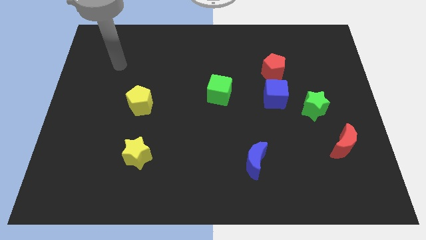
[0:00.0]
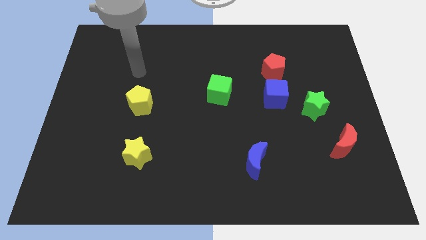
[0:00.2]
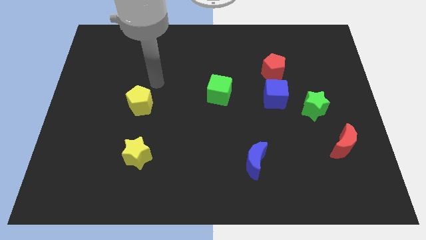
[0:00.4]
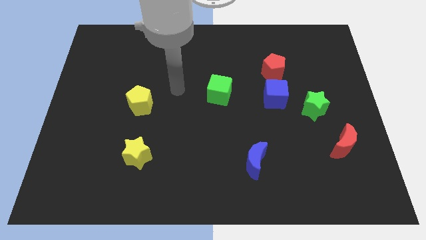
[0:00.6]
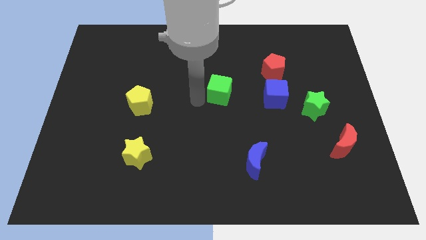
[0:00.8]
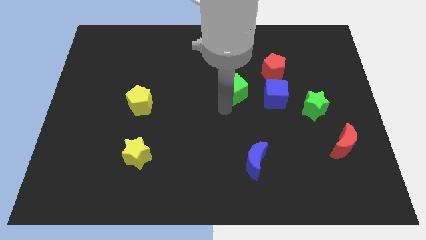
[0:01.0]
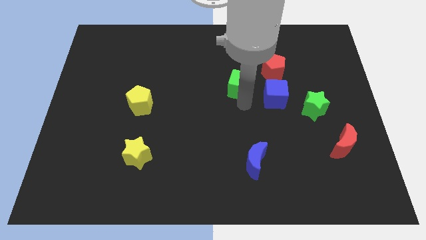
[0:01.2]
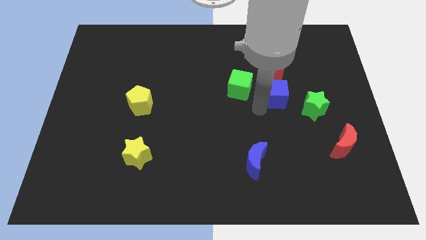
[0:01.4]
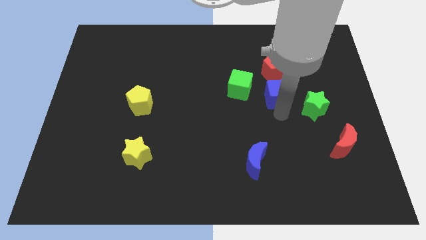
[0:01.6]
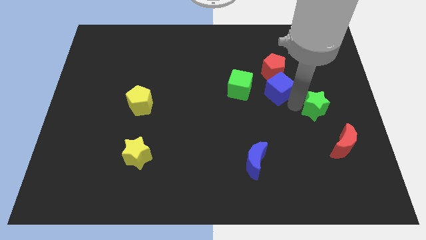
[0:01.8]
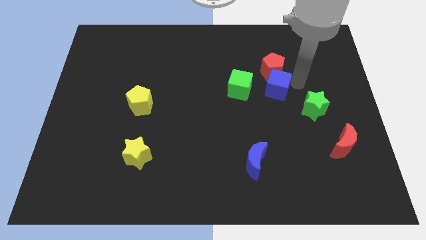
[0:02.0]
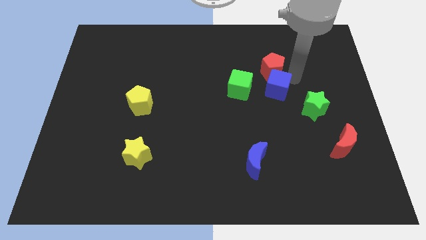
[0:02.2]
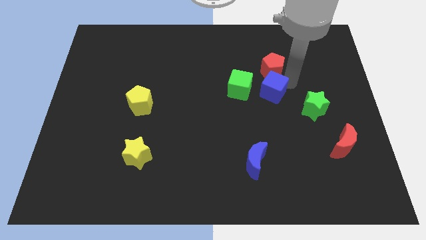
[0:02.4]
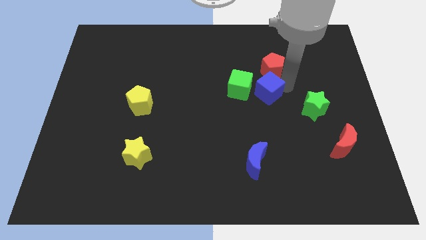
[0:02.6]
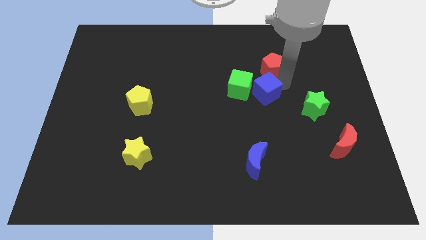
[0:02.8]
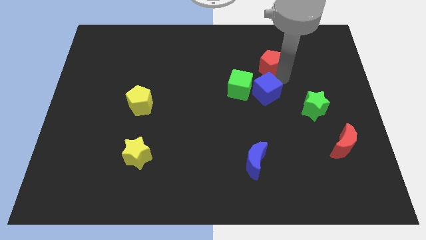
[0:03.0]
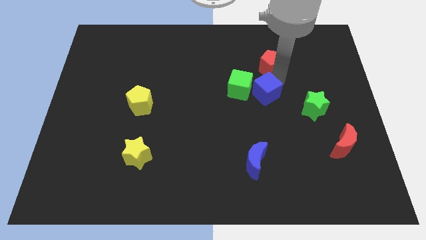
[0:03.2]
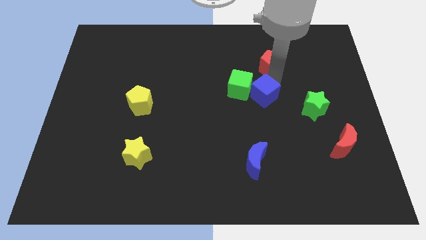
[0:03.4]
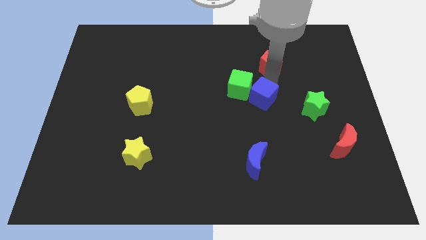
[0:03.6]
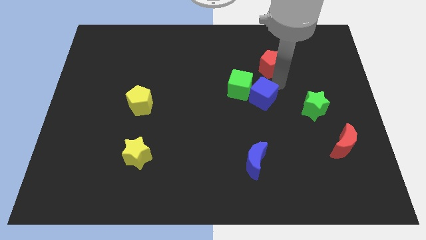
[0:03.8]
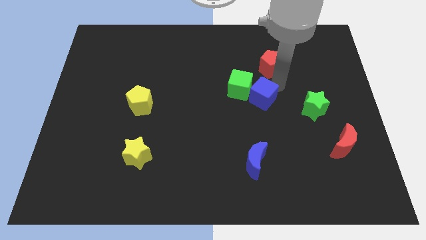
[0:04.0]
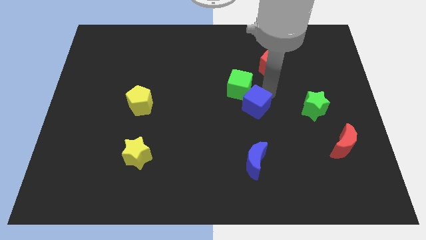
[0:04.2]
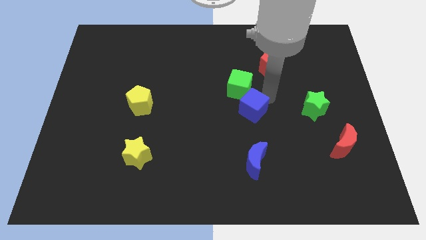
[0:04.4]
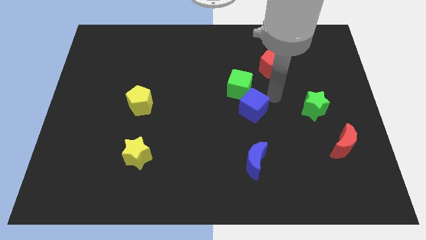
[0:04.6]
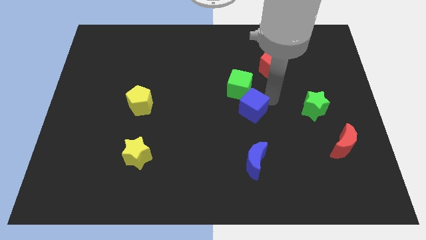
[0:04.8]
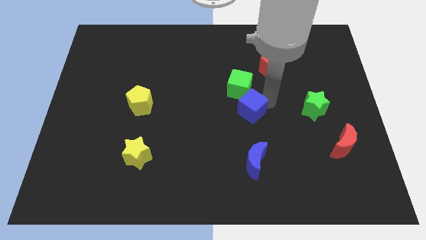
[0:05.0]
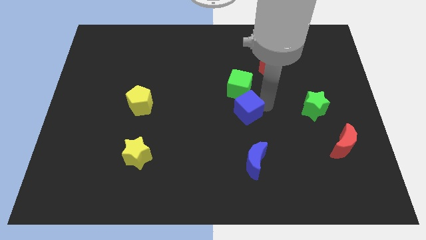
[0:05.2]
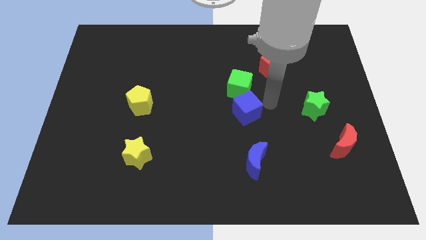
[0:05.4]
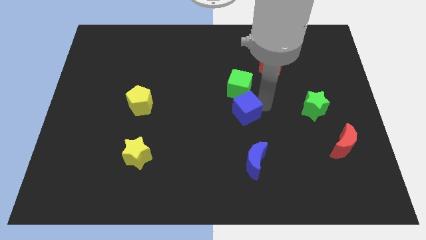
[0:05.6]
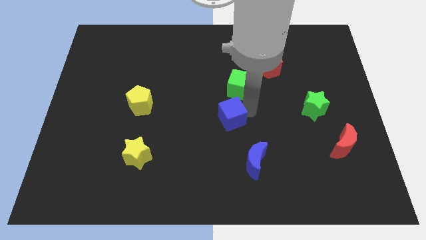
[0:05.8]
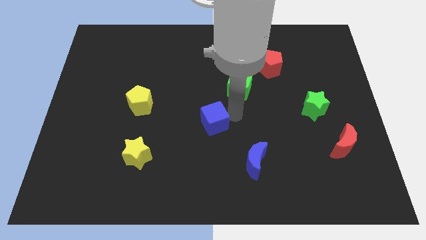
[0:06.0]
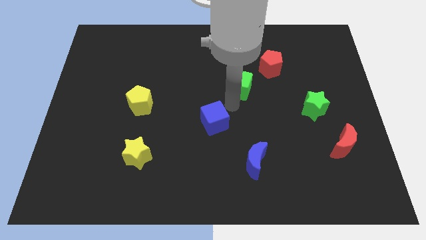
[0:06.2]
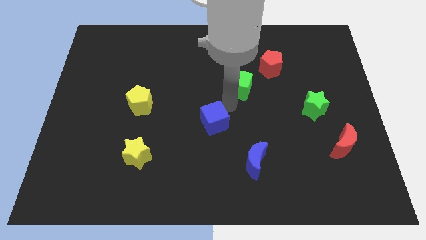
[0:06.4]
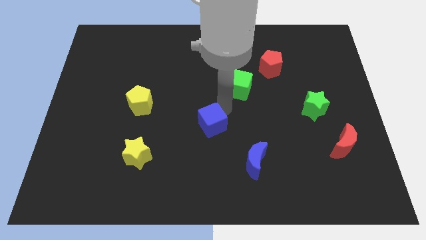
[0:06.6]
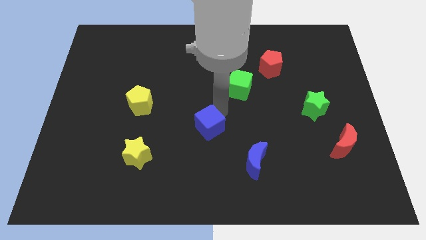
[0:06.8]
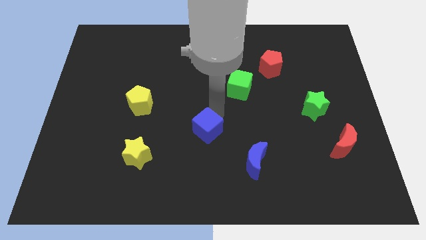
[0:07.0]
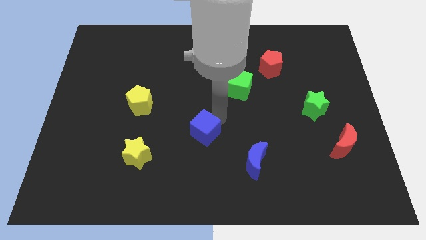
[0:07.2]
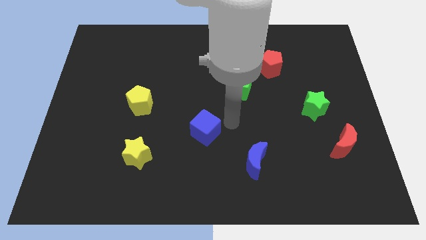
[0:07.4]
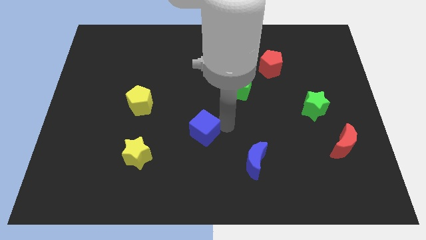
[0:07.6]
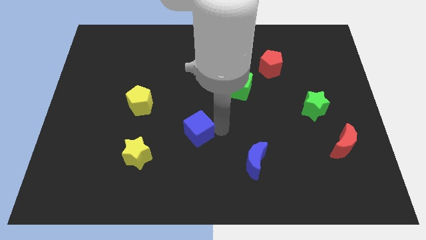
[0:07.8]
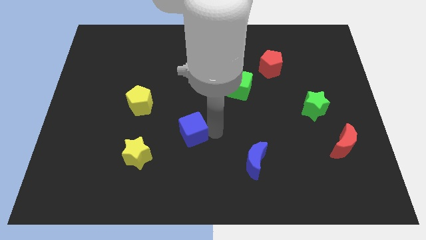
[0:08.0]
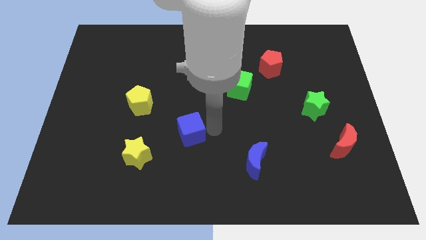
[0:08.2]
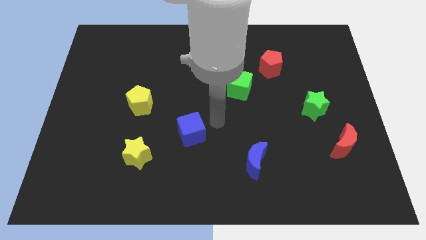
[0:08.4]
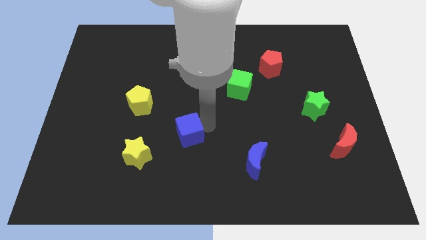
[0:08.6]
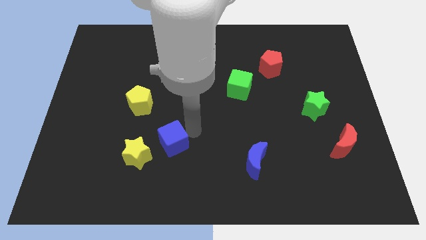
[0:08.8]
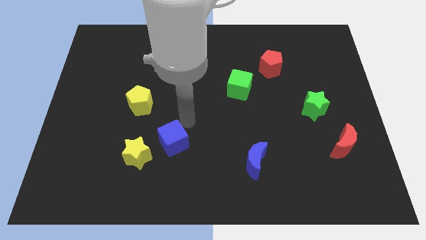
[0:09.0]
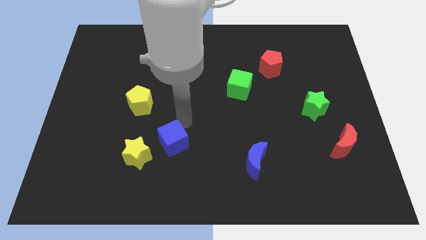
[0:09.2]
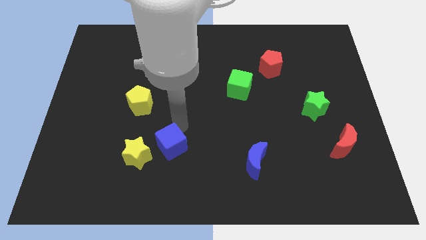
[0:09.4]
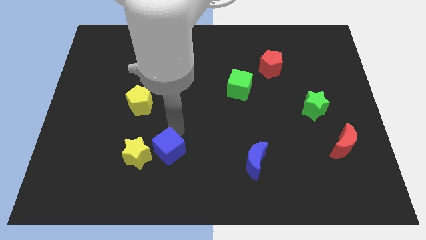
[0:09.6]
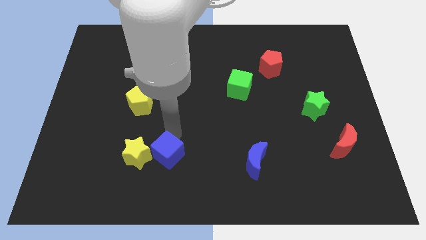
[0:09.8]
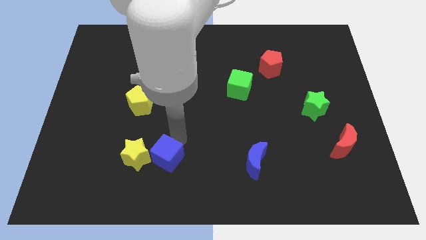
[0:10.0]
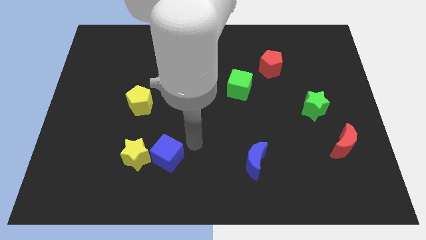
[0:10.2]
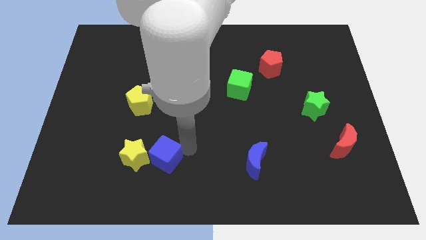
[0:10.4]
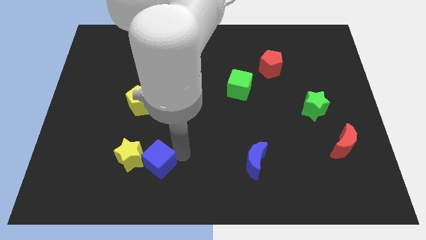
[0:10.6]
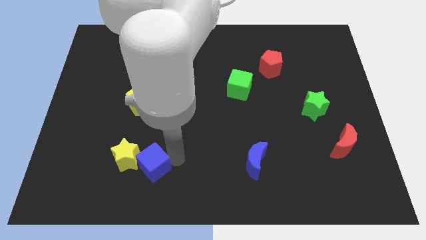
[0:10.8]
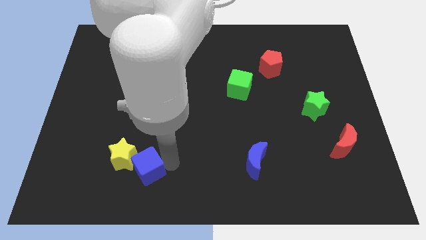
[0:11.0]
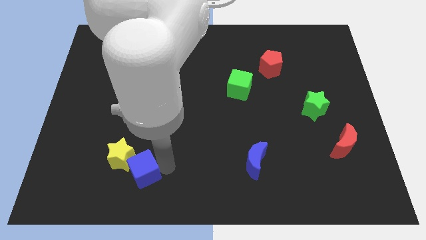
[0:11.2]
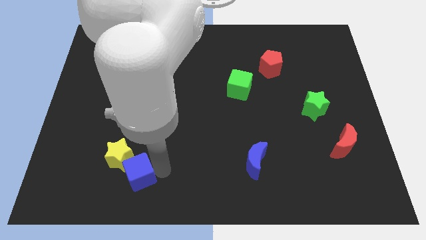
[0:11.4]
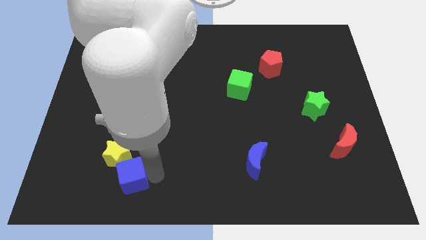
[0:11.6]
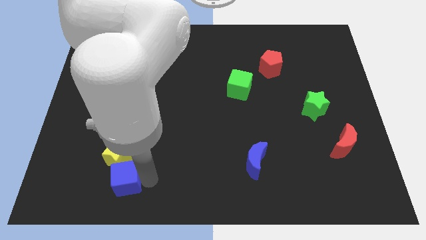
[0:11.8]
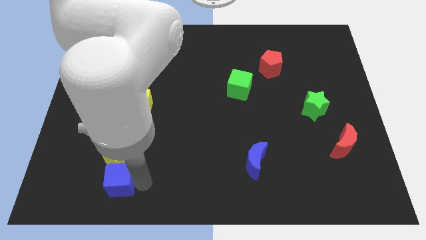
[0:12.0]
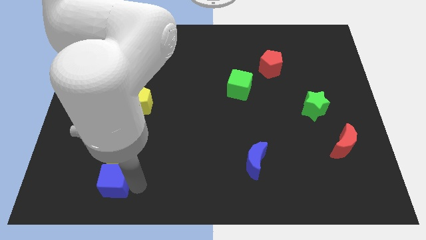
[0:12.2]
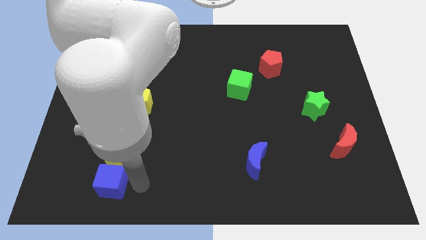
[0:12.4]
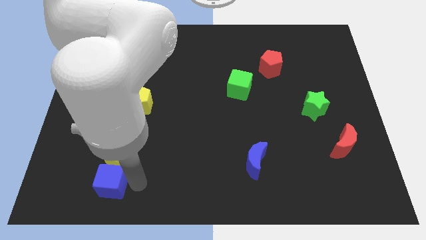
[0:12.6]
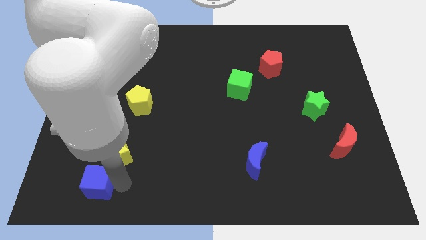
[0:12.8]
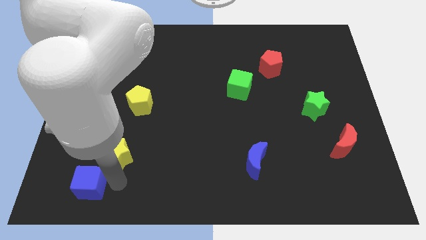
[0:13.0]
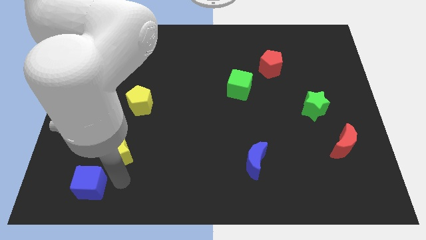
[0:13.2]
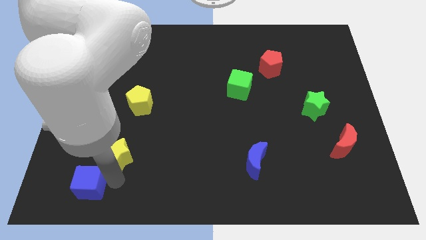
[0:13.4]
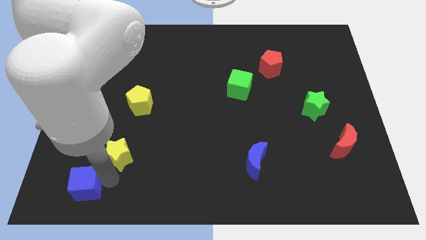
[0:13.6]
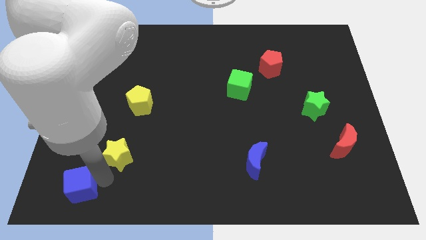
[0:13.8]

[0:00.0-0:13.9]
put the blue cube to the bottom left
